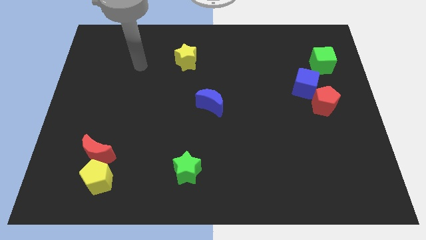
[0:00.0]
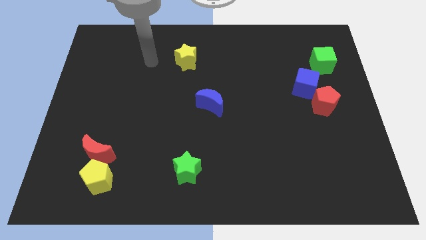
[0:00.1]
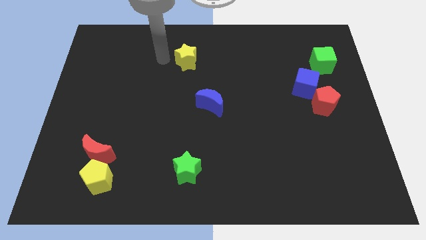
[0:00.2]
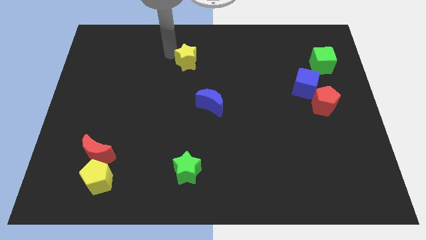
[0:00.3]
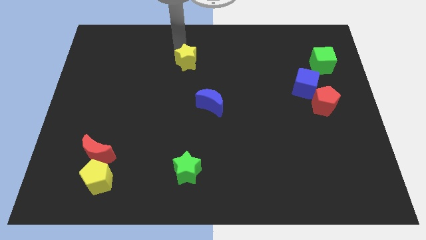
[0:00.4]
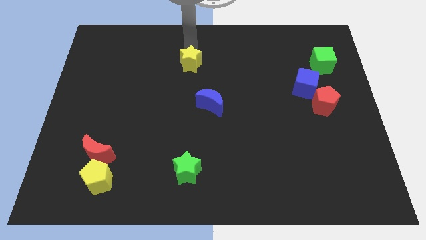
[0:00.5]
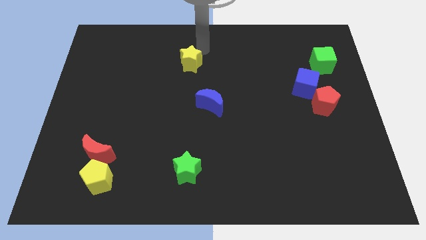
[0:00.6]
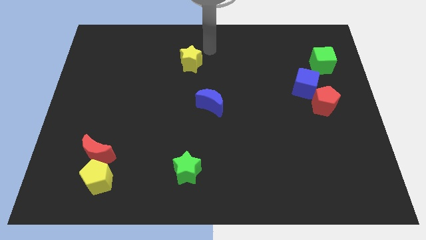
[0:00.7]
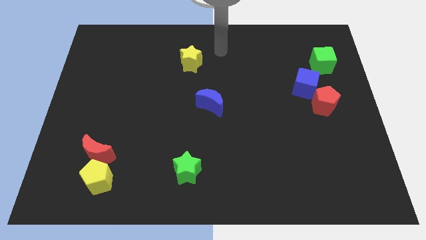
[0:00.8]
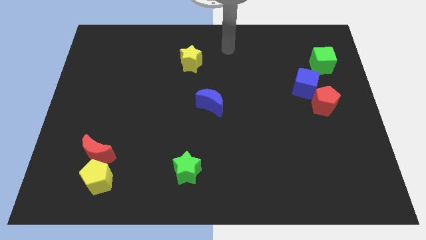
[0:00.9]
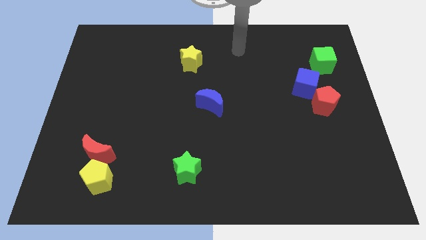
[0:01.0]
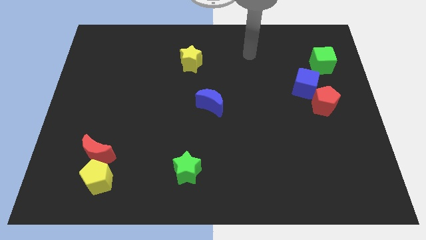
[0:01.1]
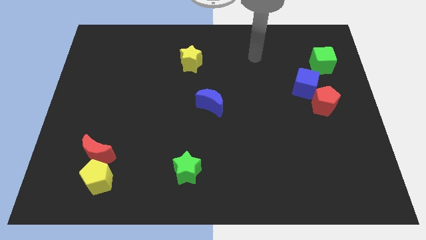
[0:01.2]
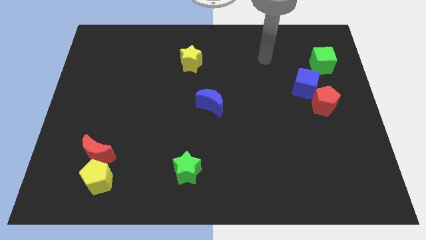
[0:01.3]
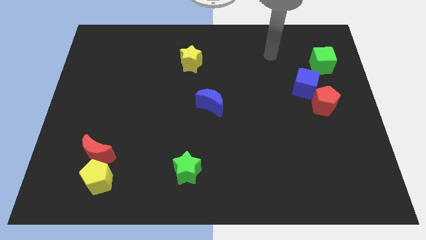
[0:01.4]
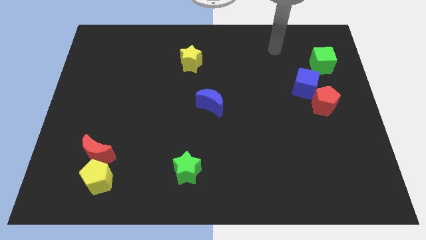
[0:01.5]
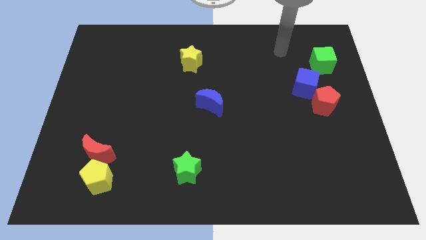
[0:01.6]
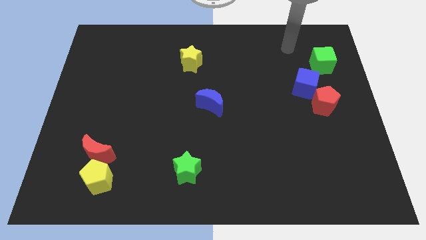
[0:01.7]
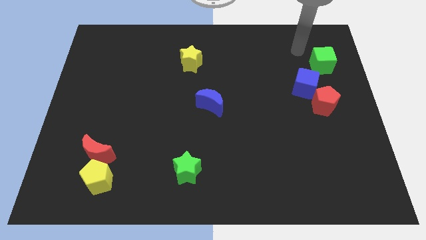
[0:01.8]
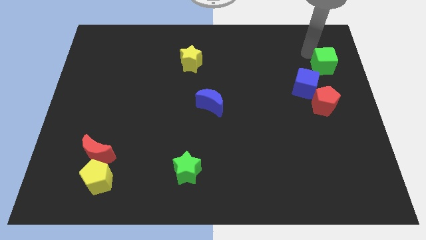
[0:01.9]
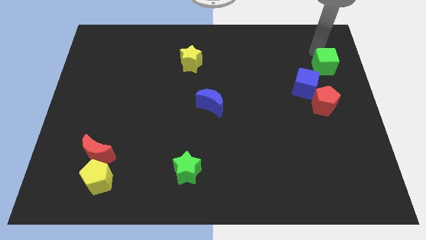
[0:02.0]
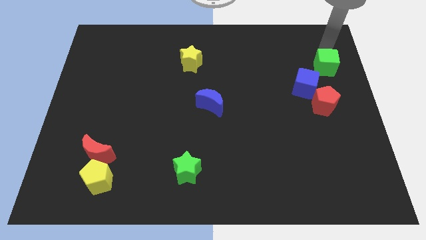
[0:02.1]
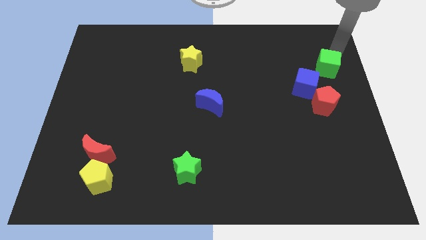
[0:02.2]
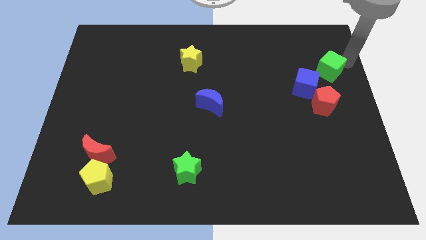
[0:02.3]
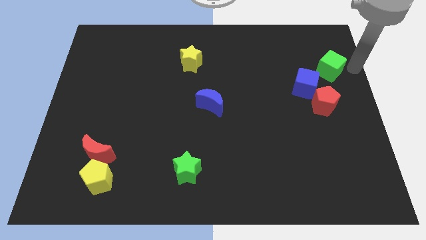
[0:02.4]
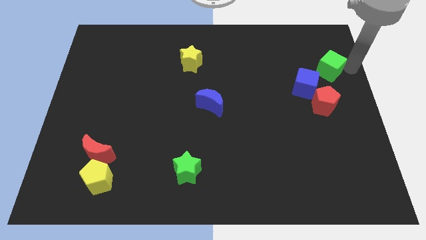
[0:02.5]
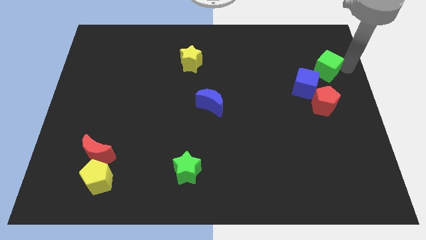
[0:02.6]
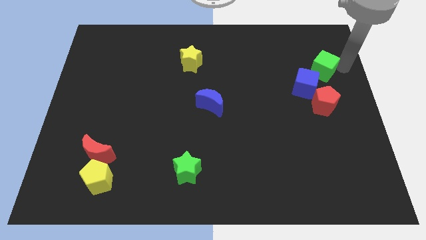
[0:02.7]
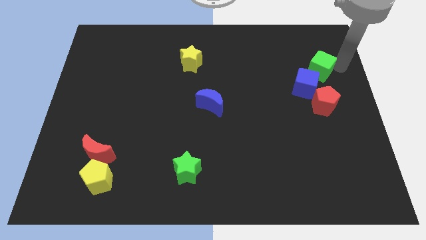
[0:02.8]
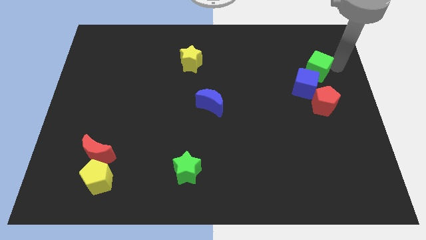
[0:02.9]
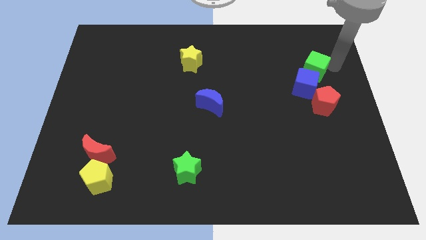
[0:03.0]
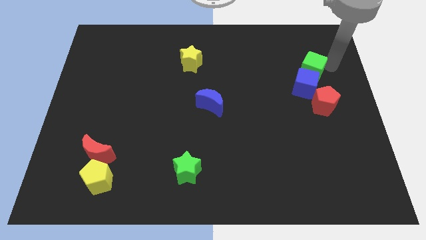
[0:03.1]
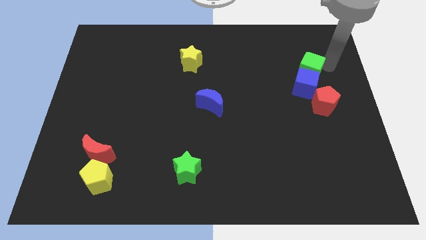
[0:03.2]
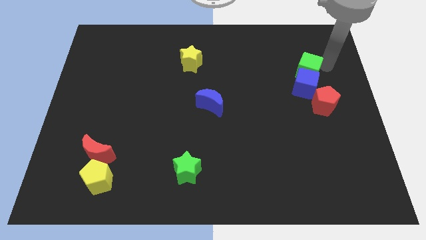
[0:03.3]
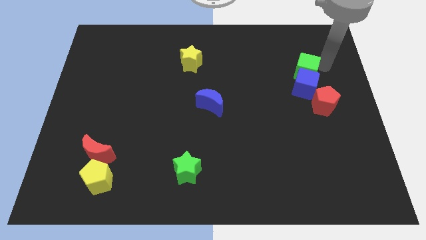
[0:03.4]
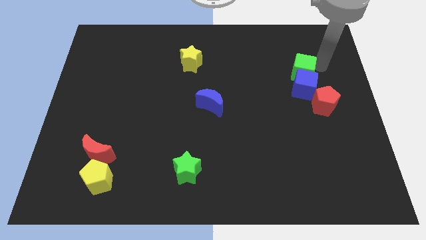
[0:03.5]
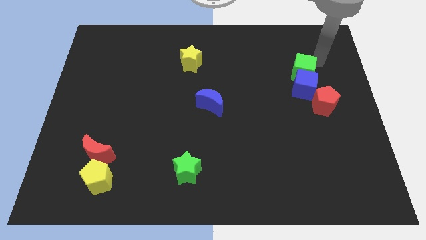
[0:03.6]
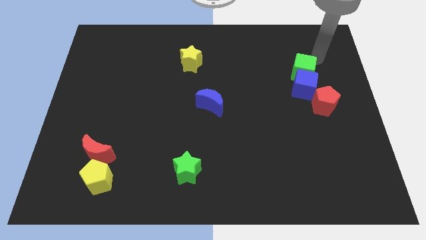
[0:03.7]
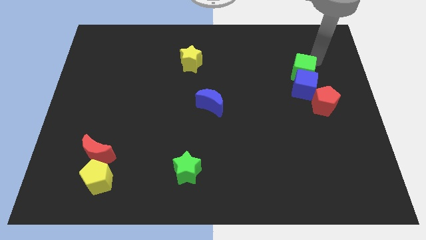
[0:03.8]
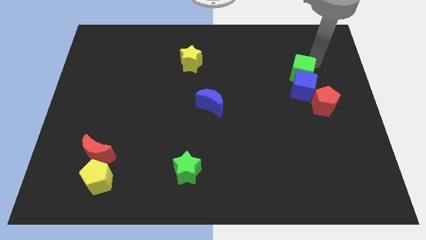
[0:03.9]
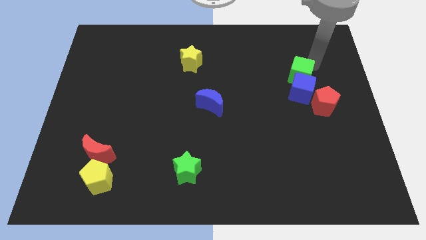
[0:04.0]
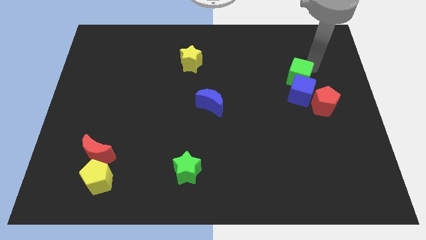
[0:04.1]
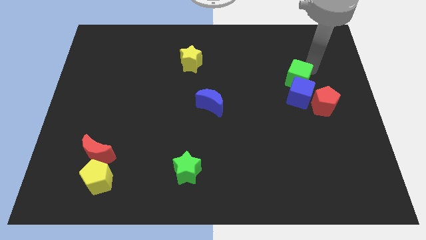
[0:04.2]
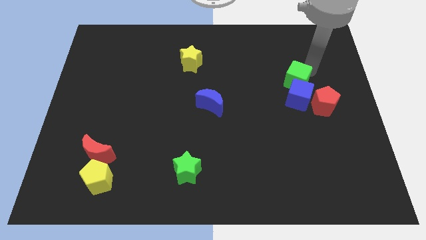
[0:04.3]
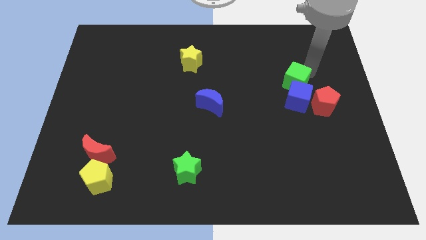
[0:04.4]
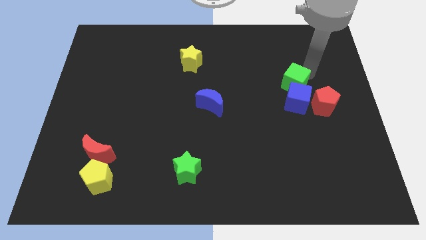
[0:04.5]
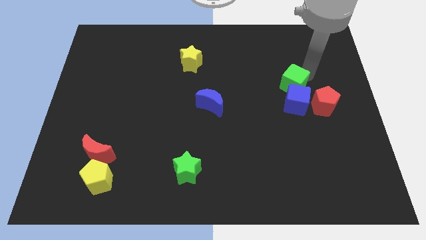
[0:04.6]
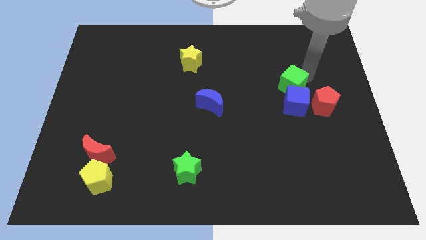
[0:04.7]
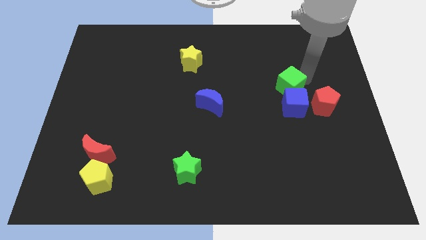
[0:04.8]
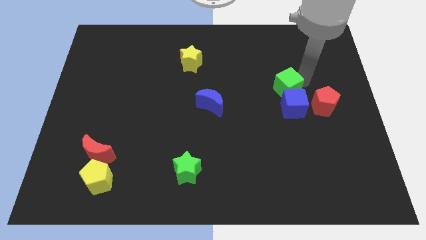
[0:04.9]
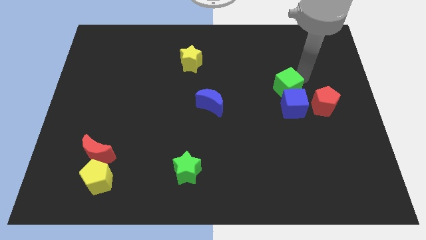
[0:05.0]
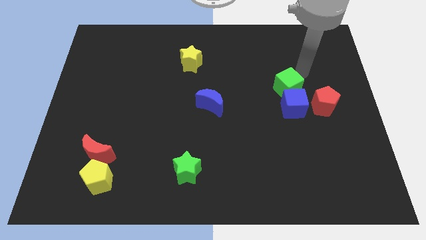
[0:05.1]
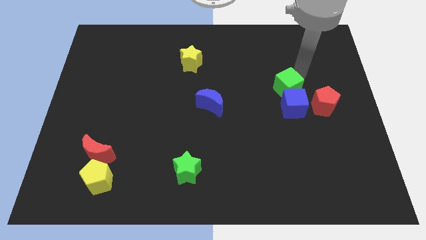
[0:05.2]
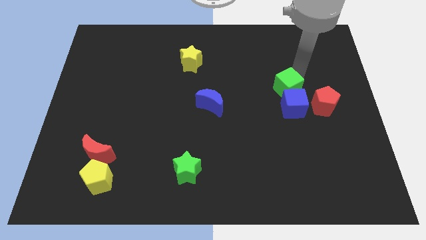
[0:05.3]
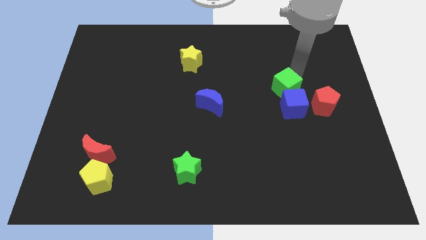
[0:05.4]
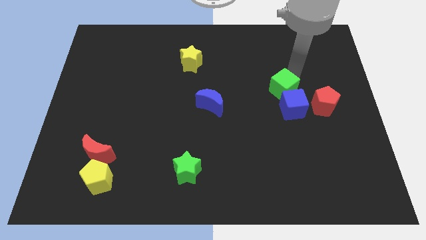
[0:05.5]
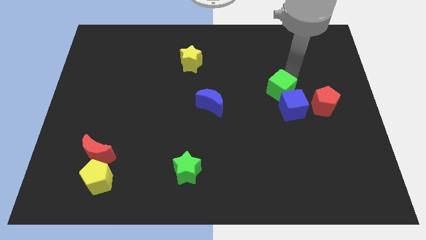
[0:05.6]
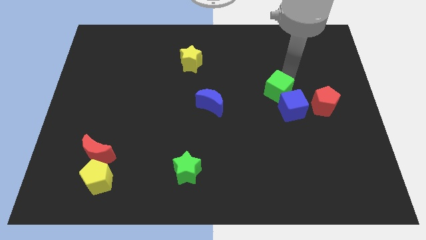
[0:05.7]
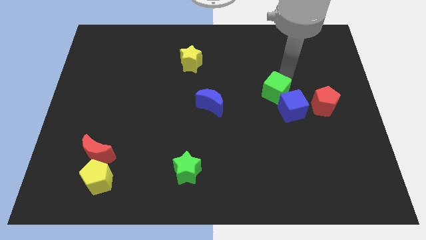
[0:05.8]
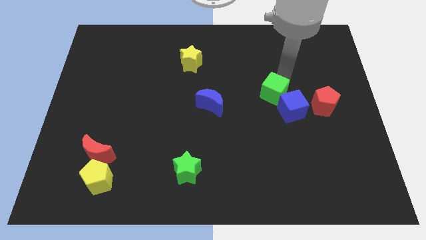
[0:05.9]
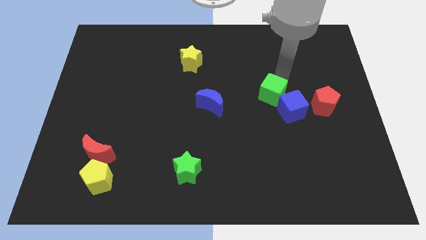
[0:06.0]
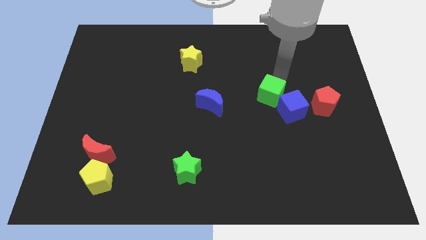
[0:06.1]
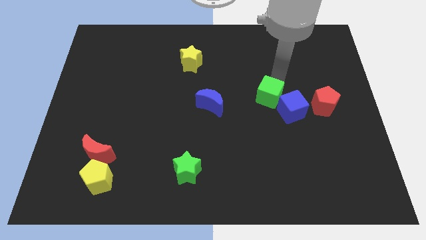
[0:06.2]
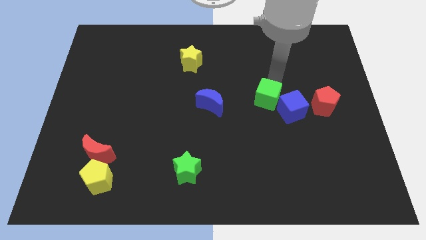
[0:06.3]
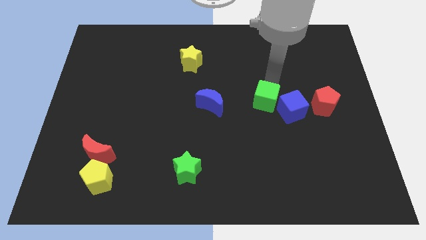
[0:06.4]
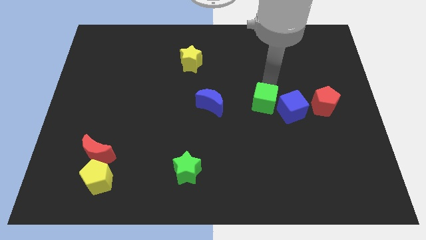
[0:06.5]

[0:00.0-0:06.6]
move the green cube downwards and left diagonally

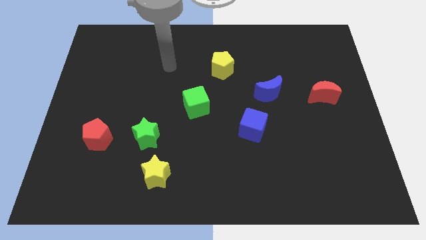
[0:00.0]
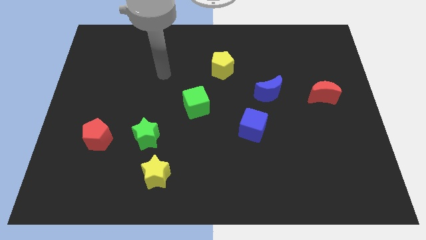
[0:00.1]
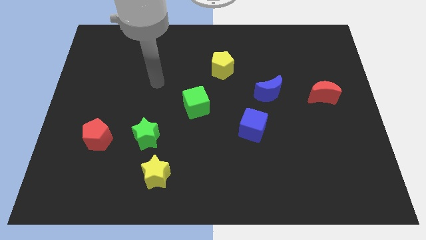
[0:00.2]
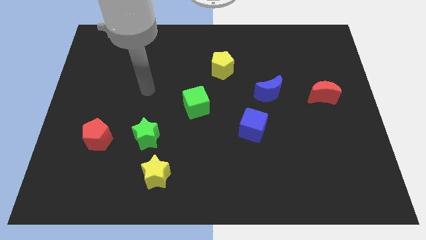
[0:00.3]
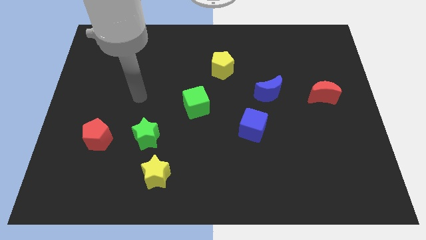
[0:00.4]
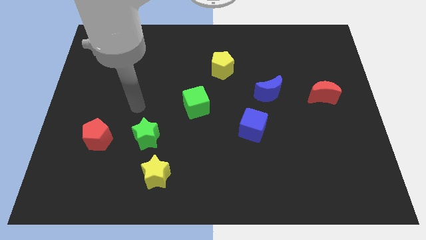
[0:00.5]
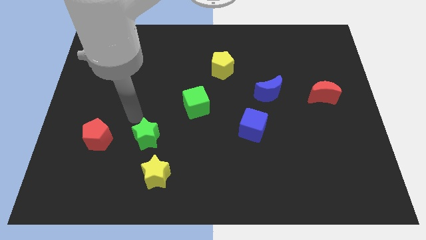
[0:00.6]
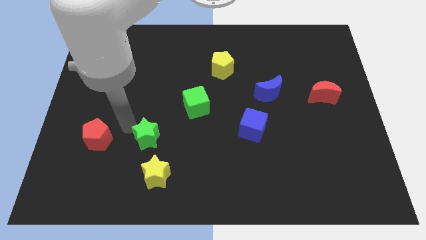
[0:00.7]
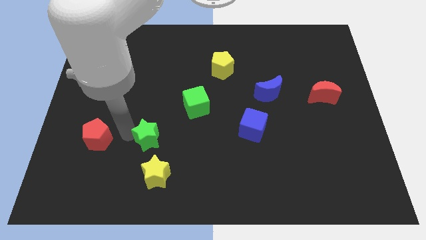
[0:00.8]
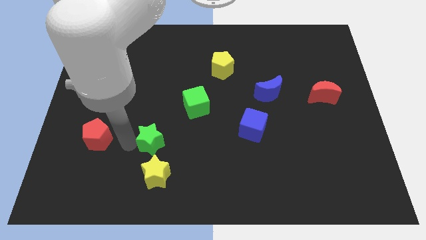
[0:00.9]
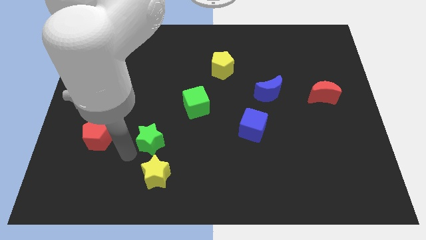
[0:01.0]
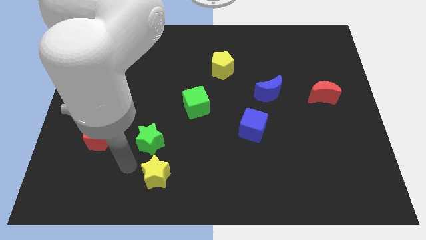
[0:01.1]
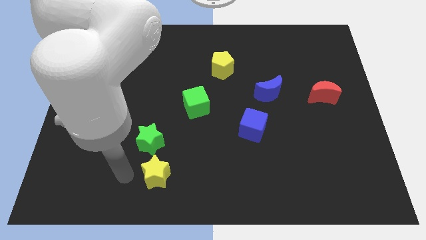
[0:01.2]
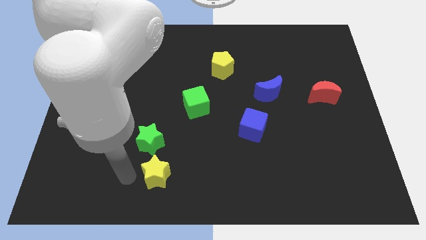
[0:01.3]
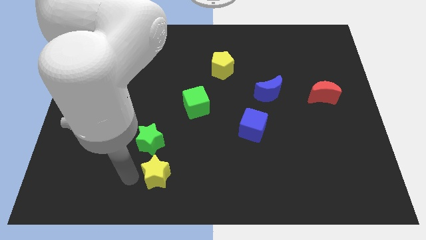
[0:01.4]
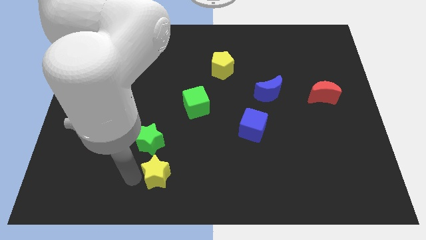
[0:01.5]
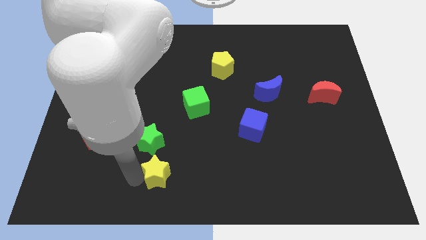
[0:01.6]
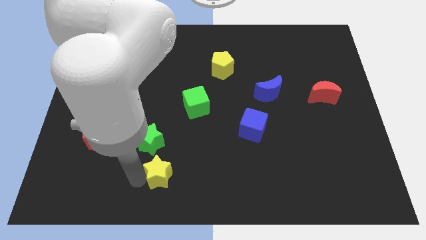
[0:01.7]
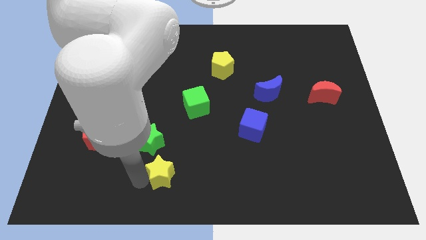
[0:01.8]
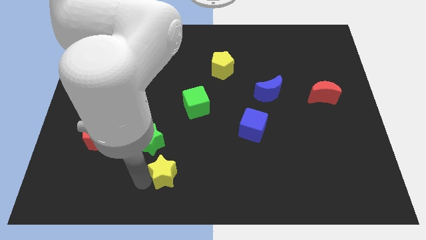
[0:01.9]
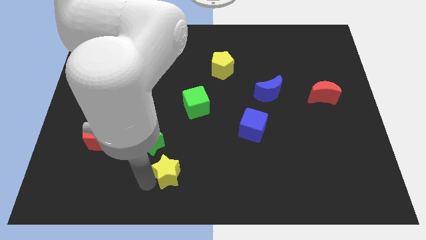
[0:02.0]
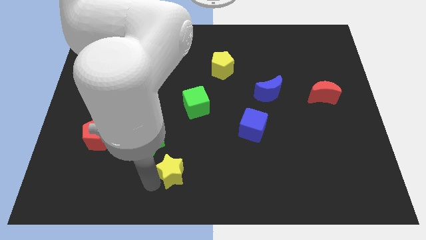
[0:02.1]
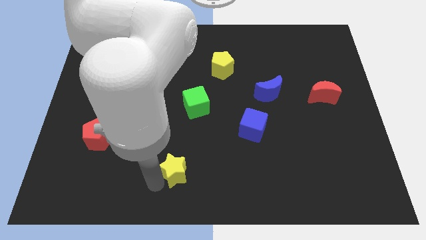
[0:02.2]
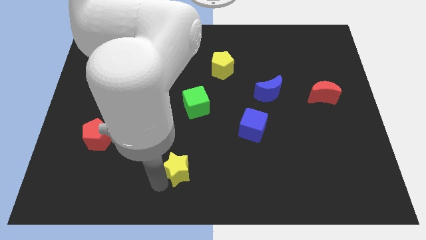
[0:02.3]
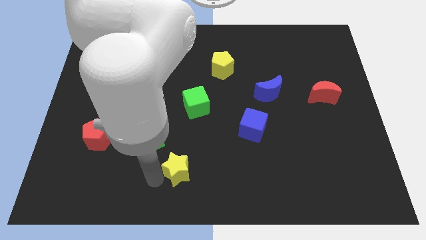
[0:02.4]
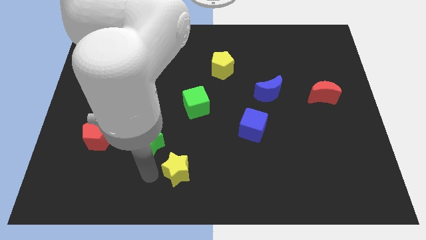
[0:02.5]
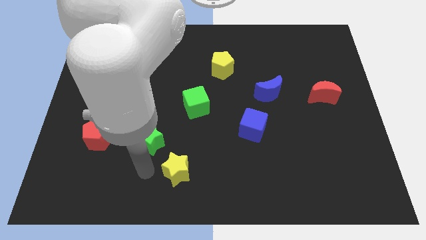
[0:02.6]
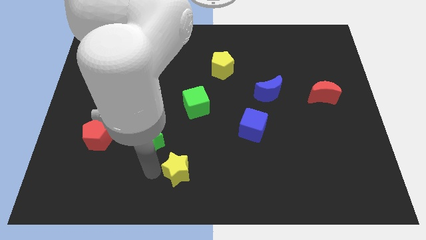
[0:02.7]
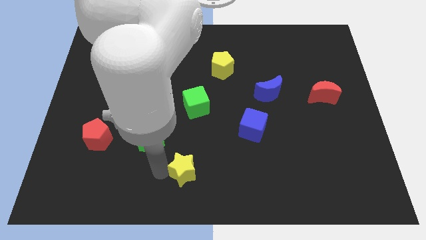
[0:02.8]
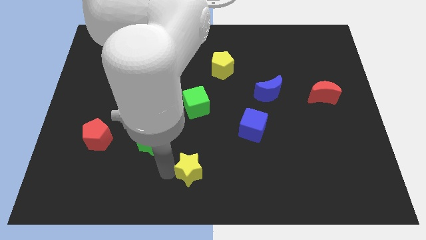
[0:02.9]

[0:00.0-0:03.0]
move the yellow star slightly to the right
